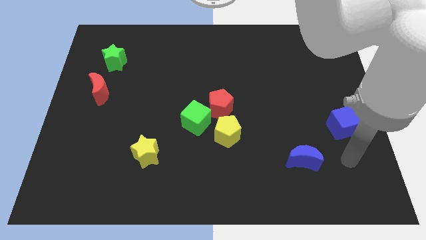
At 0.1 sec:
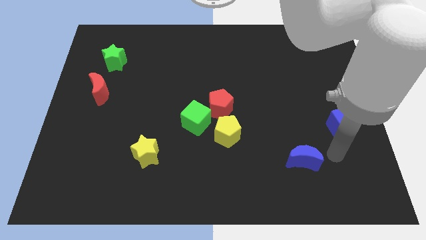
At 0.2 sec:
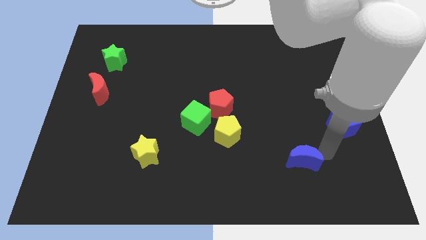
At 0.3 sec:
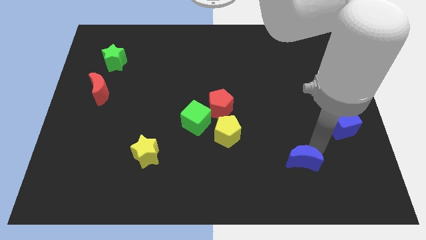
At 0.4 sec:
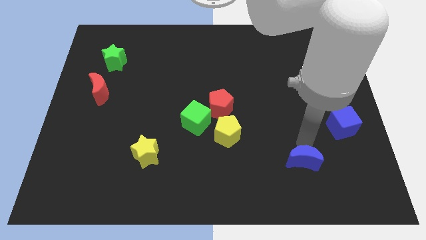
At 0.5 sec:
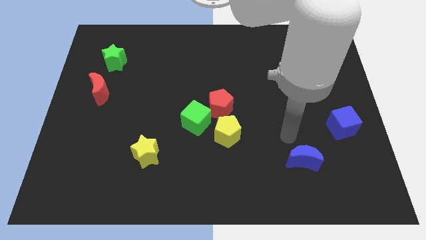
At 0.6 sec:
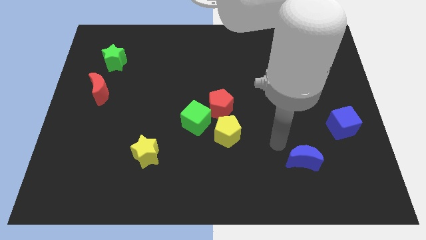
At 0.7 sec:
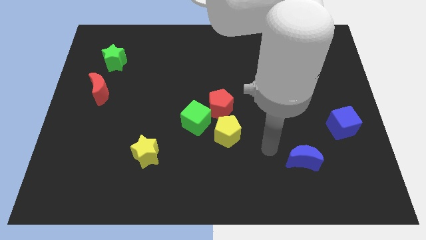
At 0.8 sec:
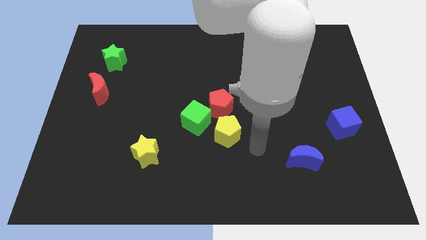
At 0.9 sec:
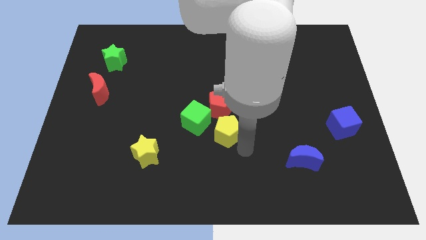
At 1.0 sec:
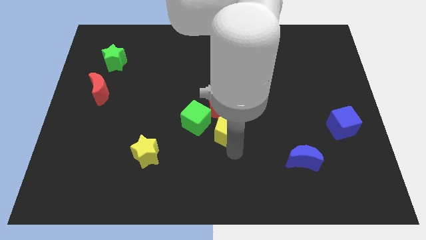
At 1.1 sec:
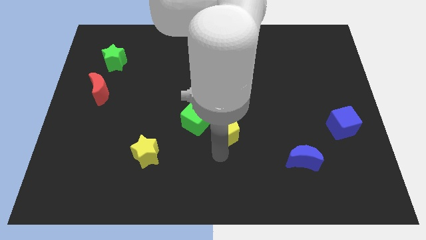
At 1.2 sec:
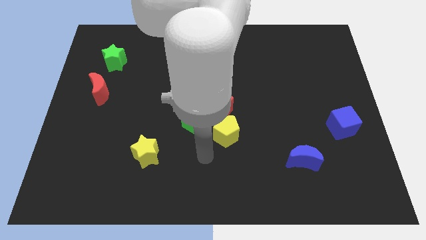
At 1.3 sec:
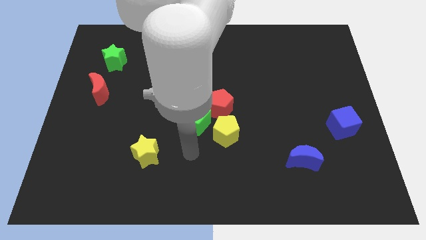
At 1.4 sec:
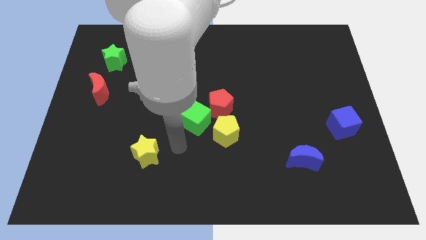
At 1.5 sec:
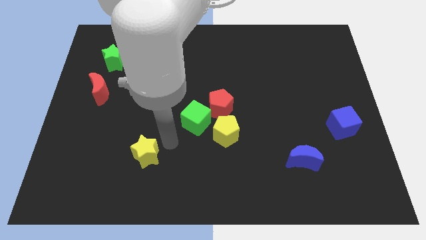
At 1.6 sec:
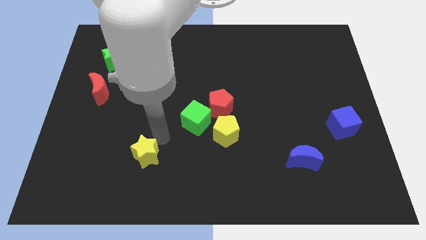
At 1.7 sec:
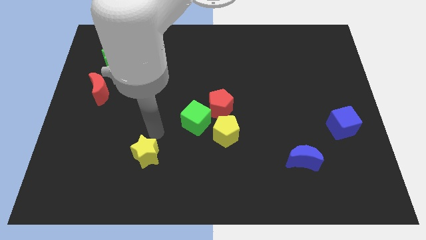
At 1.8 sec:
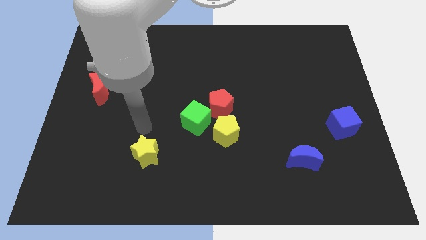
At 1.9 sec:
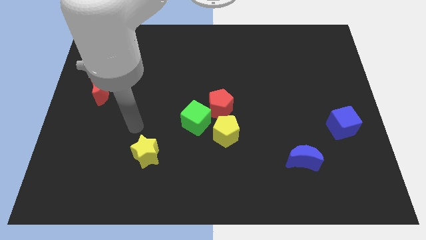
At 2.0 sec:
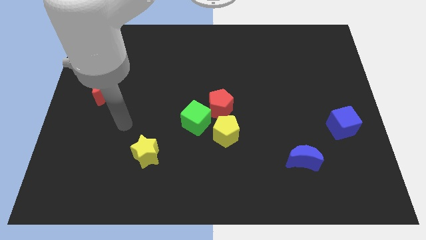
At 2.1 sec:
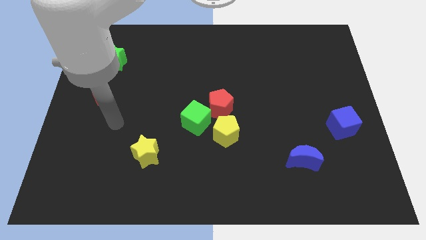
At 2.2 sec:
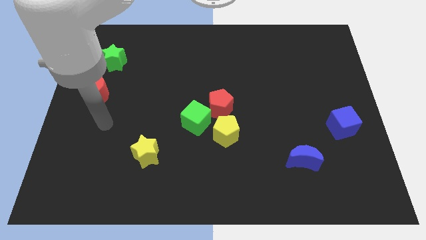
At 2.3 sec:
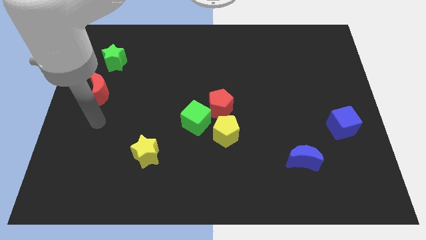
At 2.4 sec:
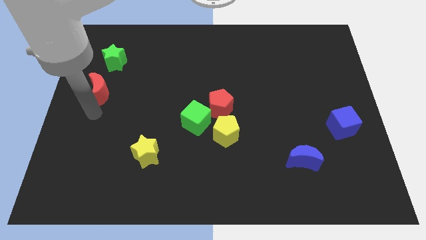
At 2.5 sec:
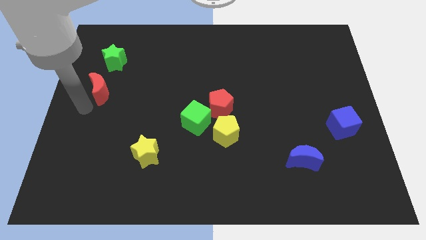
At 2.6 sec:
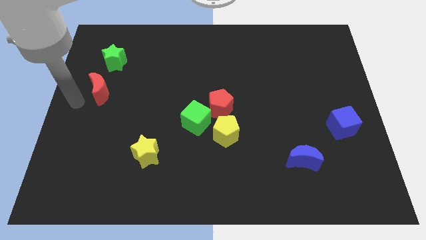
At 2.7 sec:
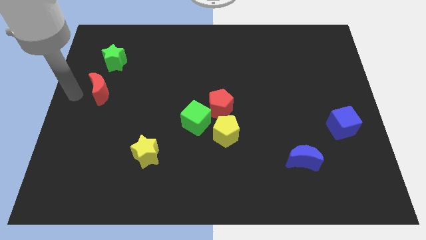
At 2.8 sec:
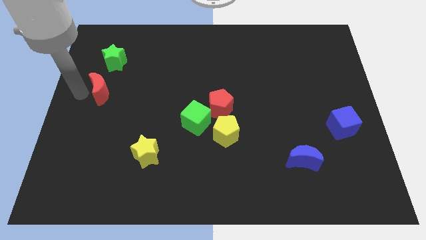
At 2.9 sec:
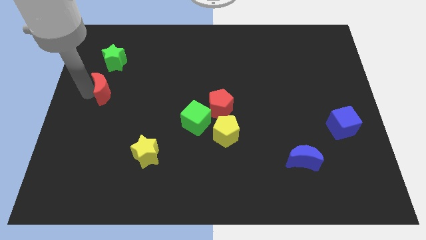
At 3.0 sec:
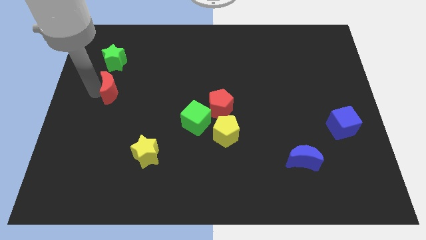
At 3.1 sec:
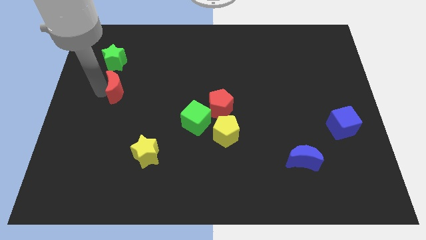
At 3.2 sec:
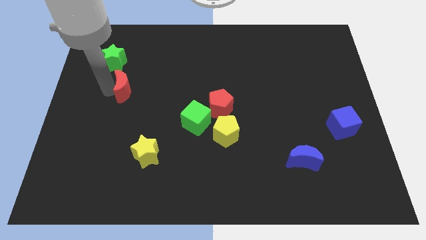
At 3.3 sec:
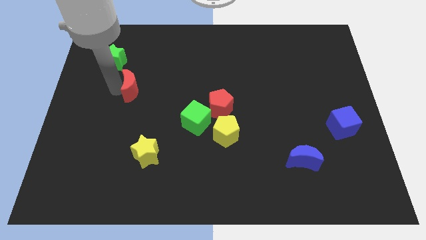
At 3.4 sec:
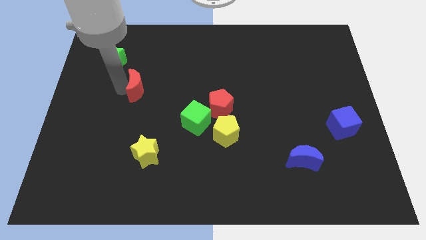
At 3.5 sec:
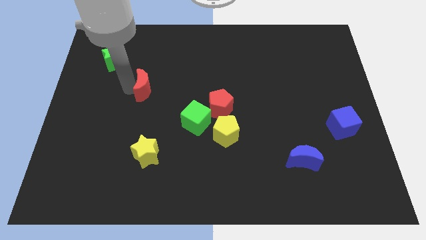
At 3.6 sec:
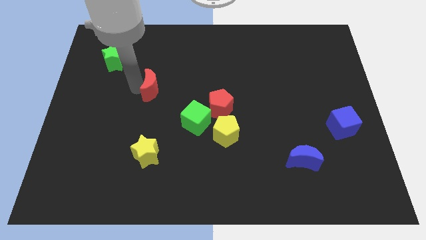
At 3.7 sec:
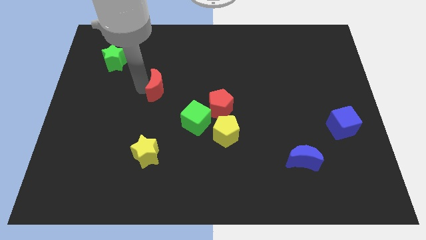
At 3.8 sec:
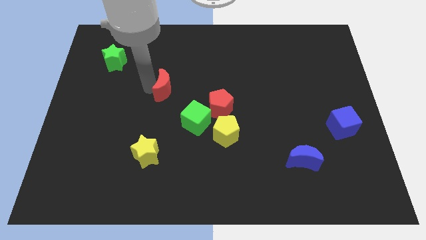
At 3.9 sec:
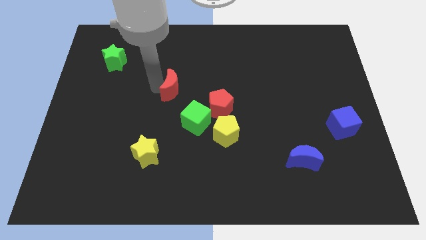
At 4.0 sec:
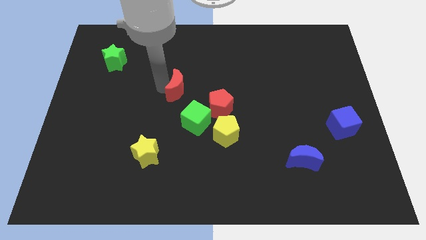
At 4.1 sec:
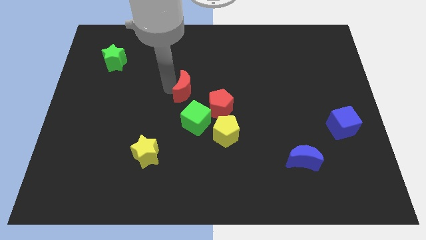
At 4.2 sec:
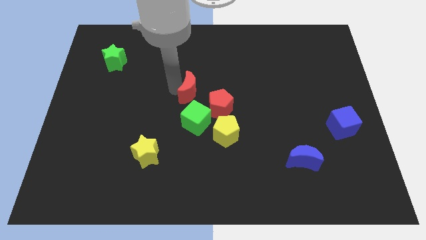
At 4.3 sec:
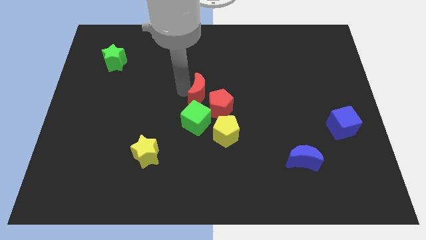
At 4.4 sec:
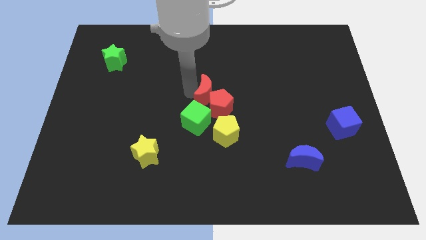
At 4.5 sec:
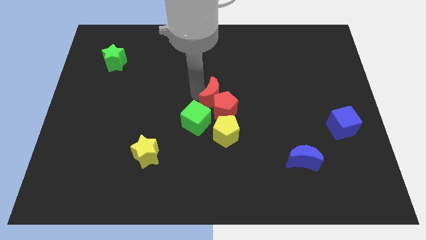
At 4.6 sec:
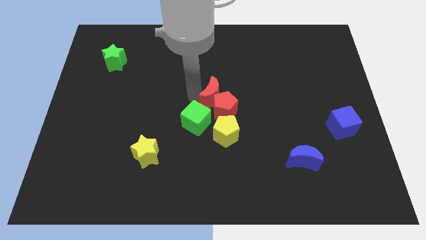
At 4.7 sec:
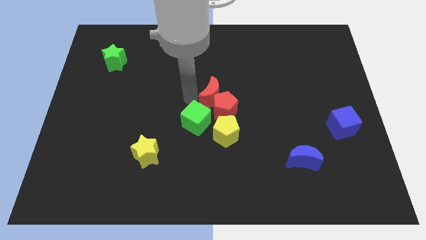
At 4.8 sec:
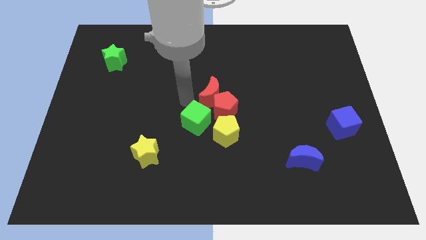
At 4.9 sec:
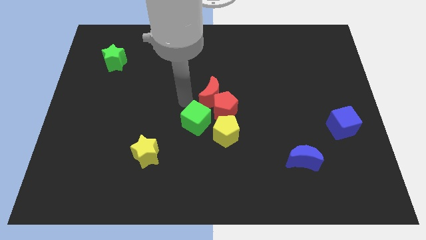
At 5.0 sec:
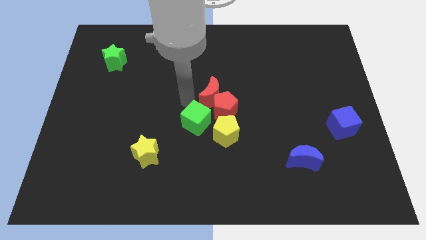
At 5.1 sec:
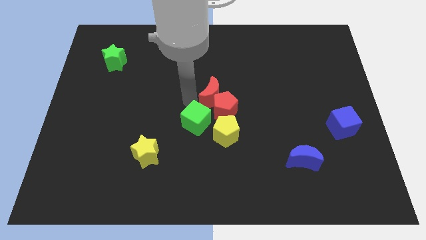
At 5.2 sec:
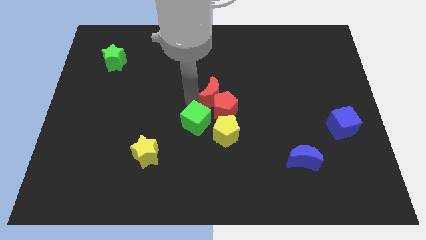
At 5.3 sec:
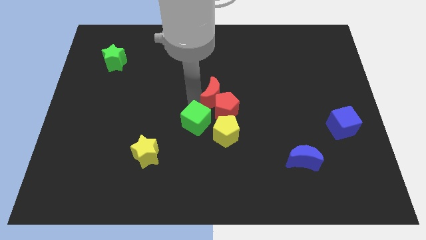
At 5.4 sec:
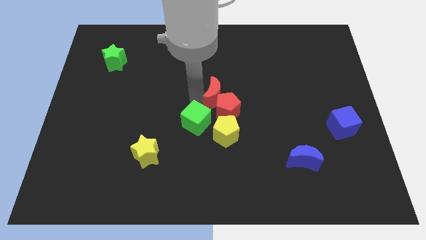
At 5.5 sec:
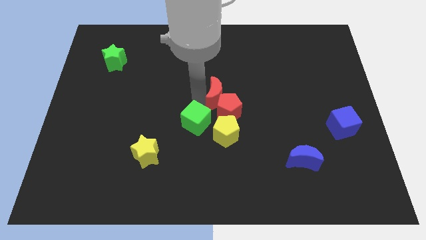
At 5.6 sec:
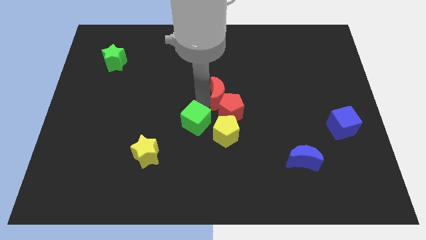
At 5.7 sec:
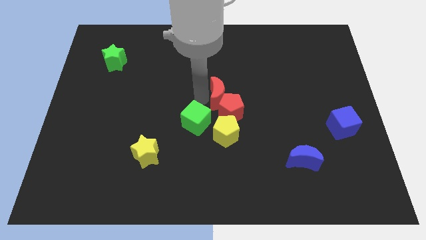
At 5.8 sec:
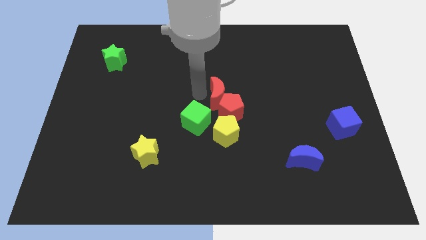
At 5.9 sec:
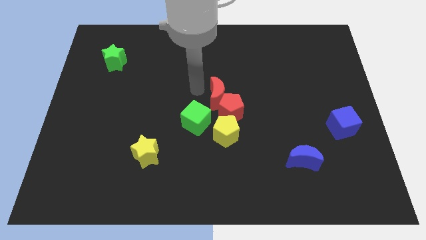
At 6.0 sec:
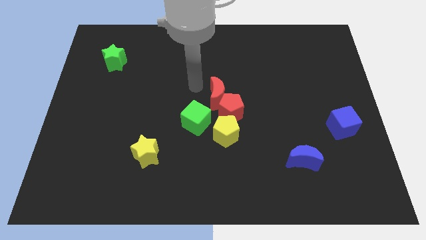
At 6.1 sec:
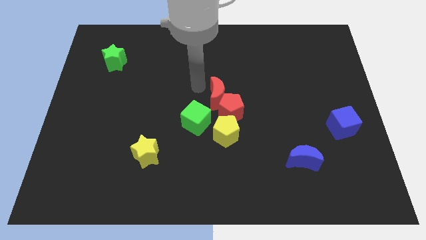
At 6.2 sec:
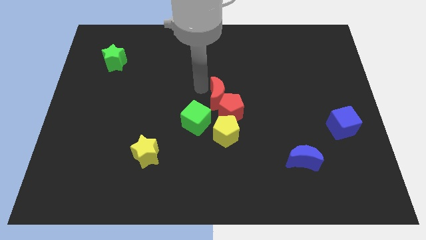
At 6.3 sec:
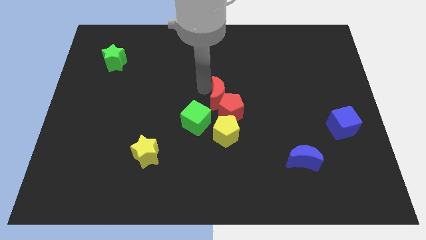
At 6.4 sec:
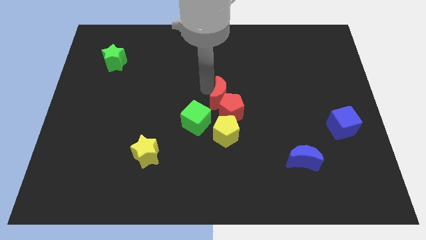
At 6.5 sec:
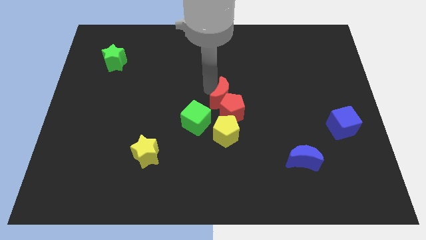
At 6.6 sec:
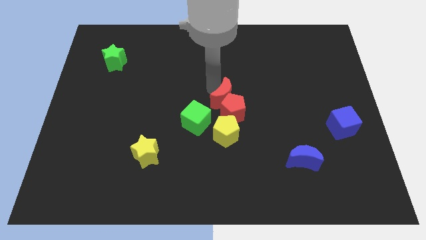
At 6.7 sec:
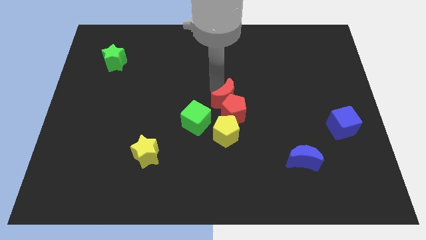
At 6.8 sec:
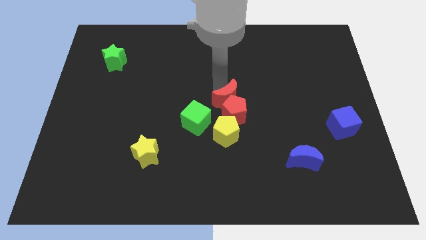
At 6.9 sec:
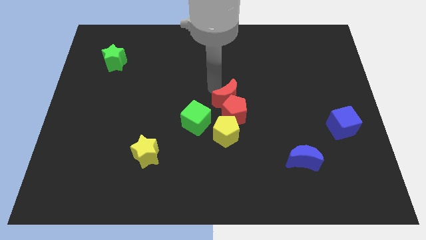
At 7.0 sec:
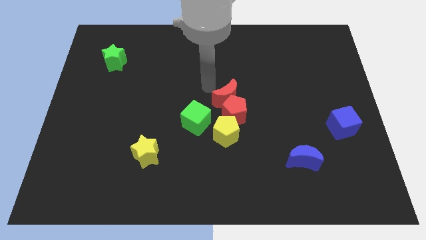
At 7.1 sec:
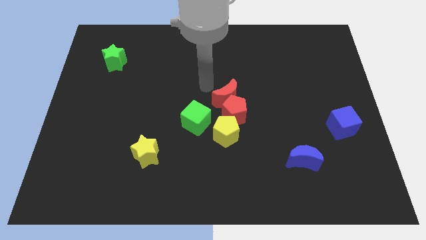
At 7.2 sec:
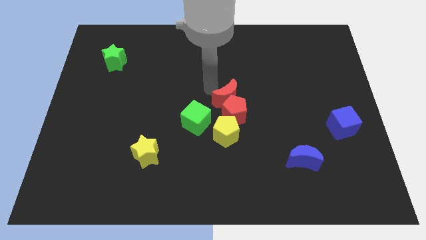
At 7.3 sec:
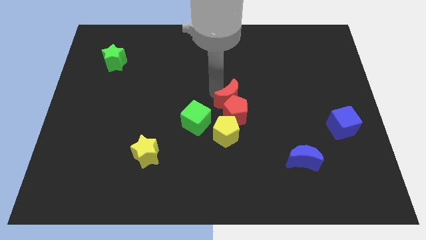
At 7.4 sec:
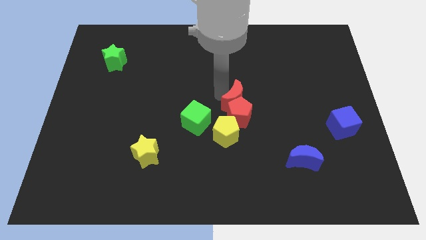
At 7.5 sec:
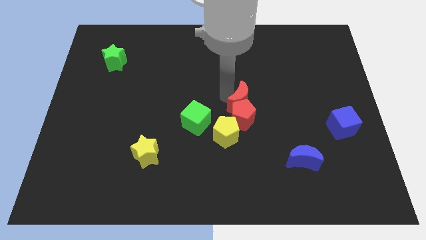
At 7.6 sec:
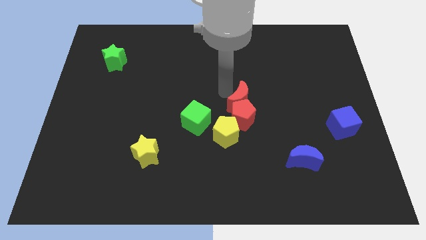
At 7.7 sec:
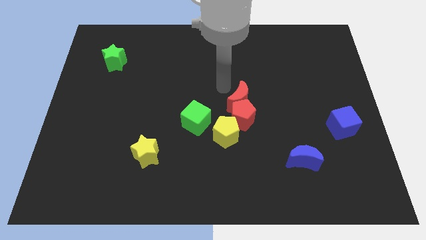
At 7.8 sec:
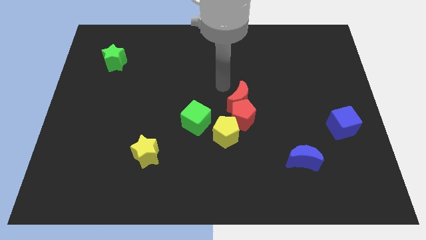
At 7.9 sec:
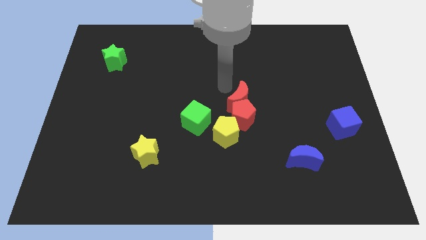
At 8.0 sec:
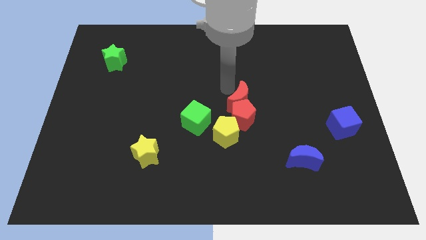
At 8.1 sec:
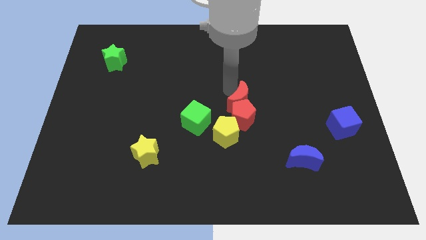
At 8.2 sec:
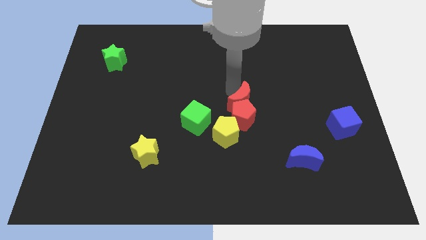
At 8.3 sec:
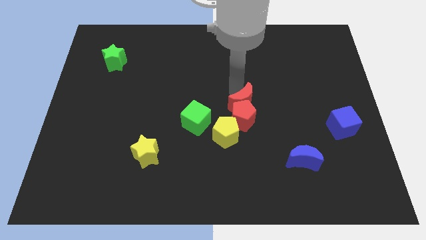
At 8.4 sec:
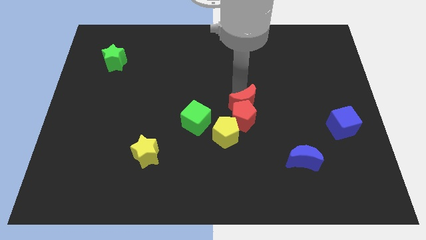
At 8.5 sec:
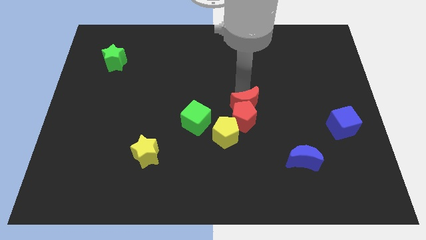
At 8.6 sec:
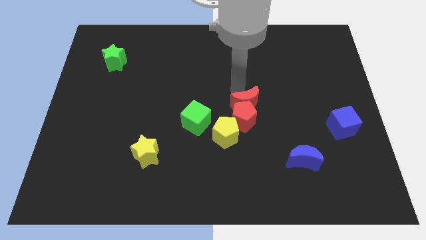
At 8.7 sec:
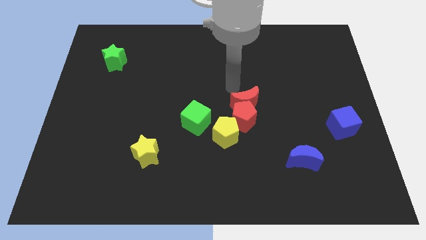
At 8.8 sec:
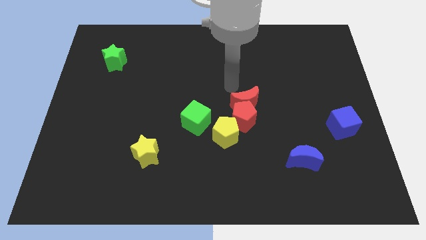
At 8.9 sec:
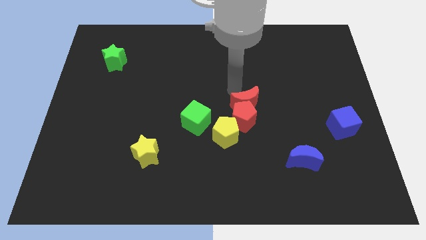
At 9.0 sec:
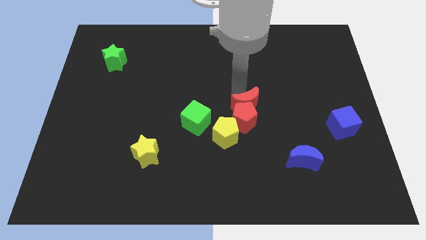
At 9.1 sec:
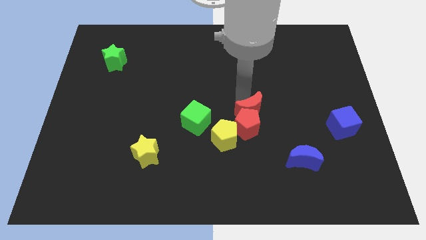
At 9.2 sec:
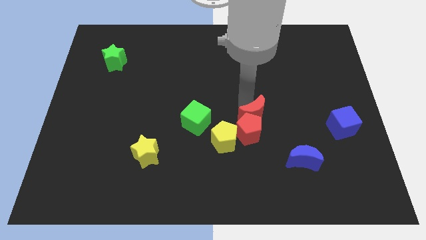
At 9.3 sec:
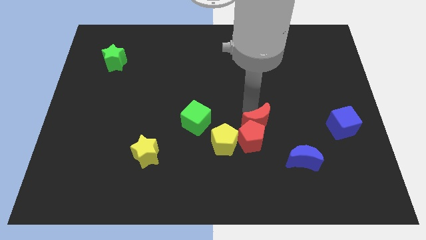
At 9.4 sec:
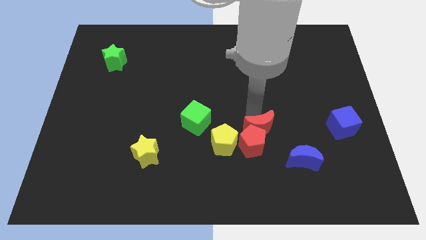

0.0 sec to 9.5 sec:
put the red moon to the top left of the blue moon
